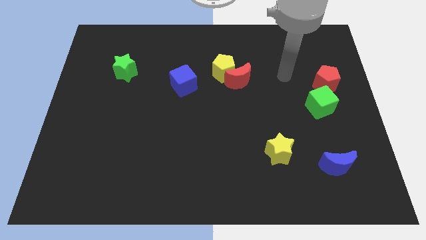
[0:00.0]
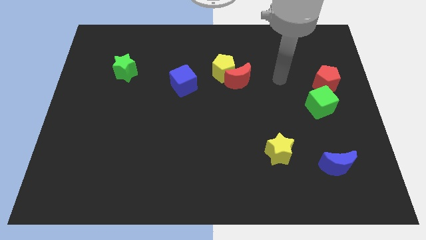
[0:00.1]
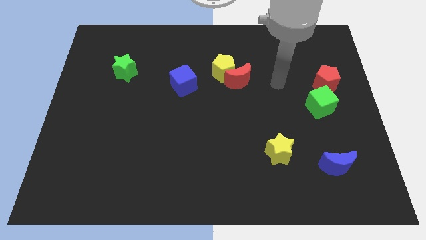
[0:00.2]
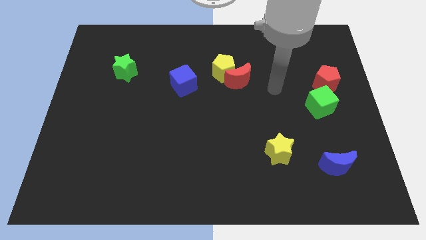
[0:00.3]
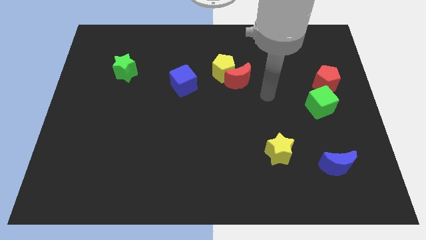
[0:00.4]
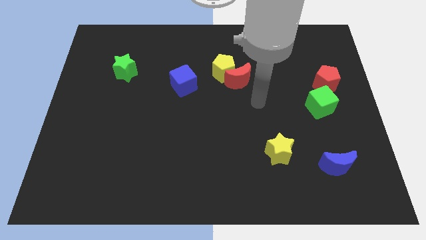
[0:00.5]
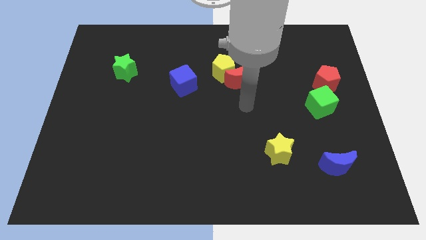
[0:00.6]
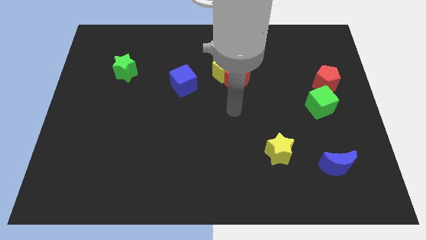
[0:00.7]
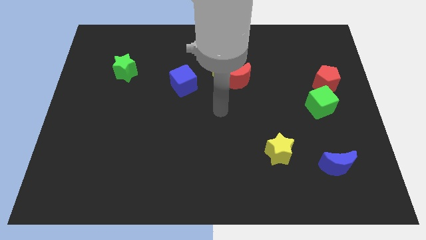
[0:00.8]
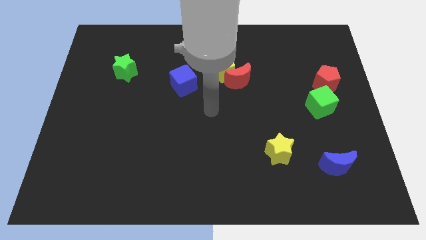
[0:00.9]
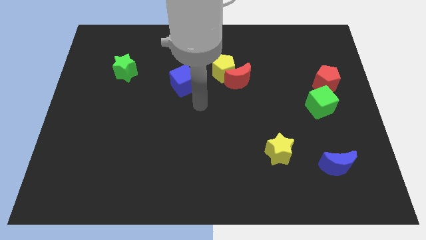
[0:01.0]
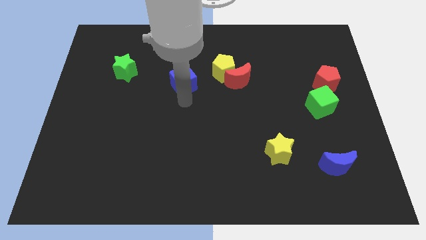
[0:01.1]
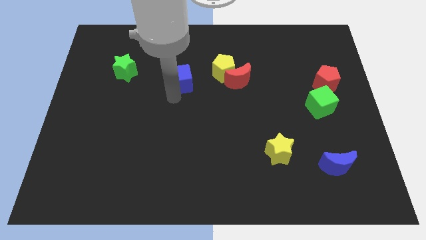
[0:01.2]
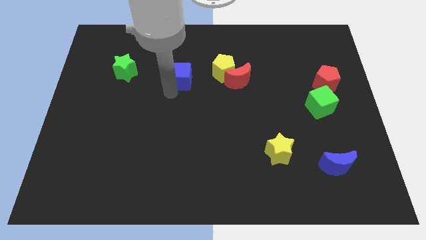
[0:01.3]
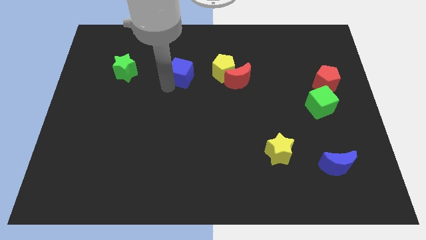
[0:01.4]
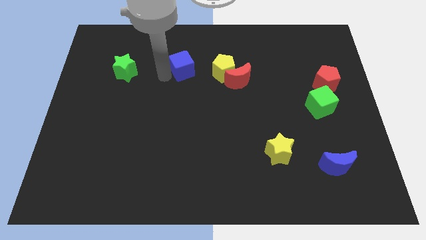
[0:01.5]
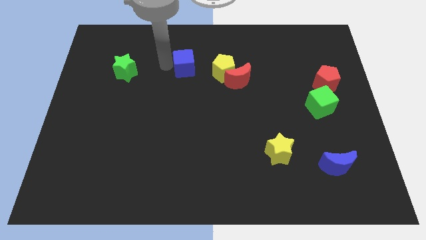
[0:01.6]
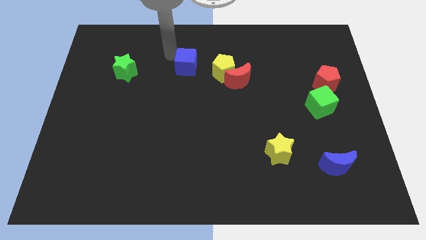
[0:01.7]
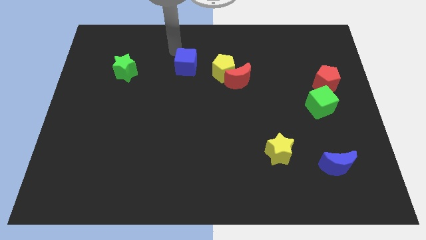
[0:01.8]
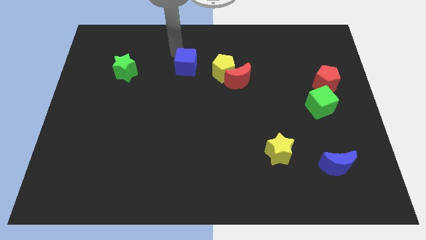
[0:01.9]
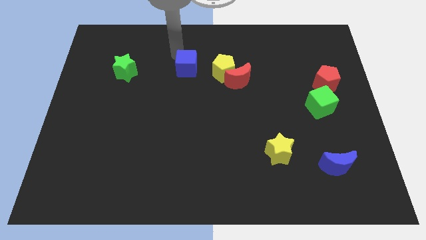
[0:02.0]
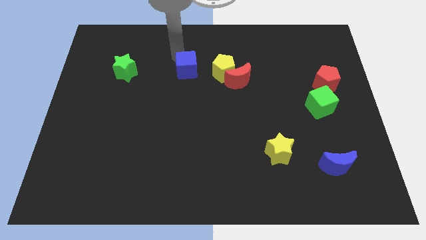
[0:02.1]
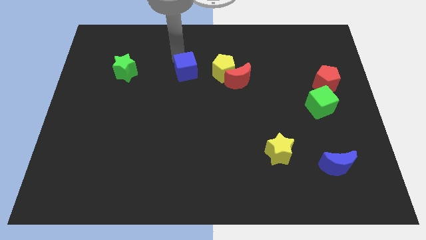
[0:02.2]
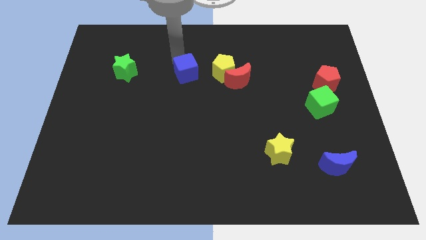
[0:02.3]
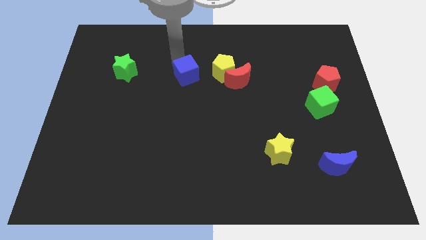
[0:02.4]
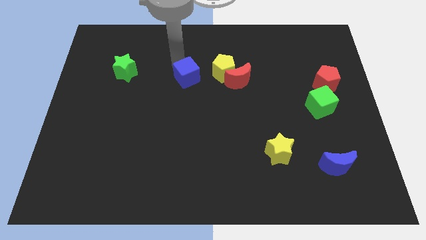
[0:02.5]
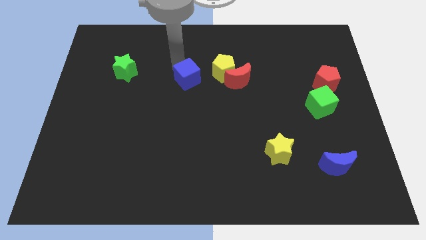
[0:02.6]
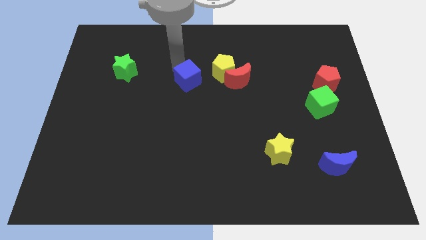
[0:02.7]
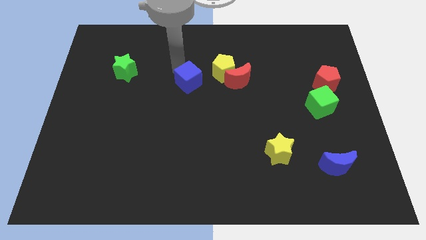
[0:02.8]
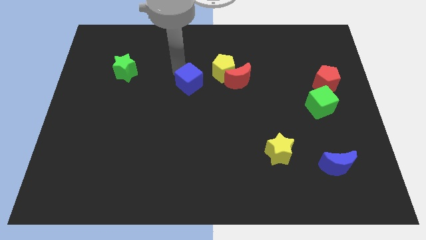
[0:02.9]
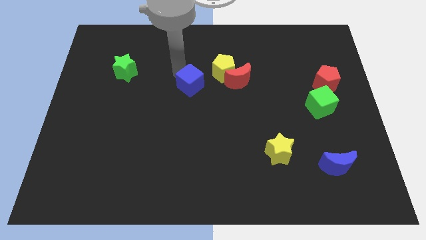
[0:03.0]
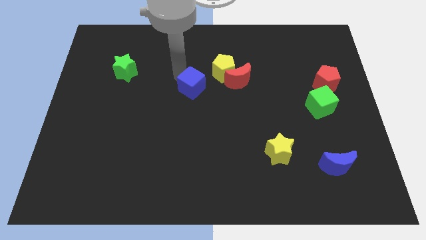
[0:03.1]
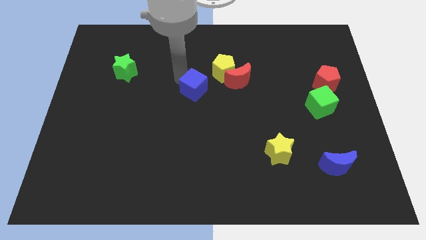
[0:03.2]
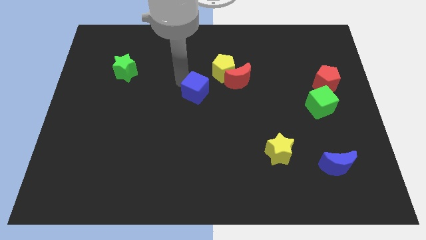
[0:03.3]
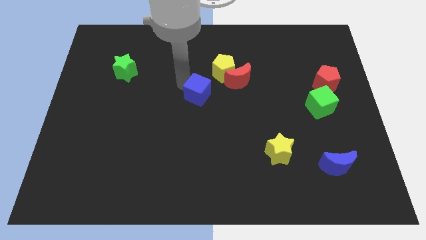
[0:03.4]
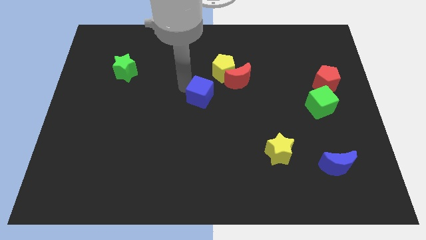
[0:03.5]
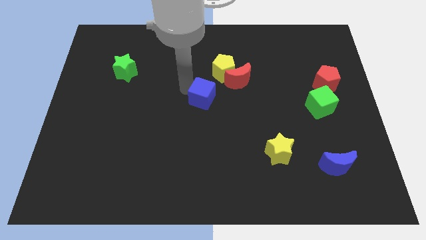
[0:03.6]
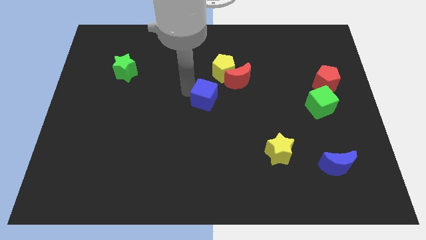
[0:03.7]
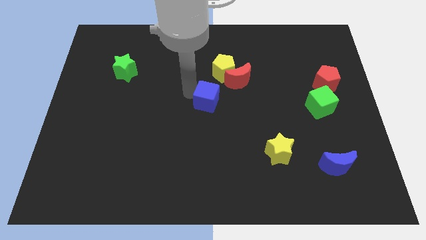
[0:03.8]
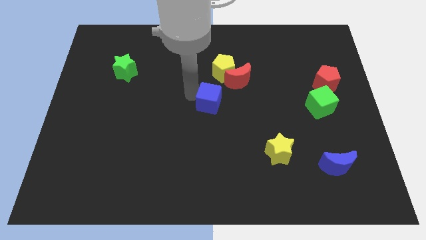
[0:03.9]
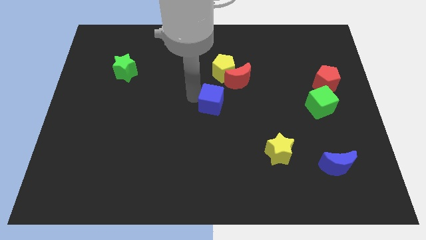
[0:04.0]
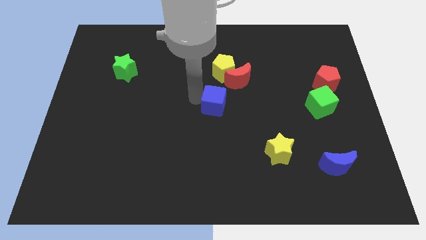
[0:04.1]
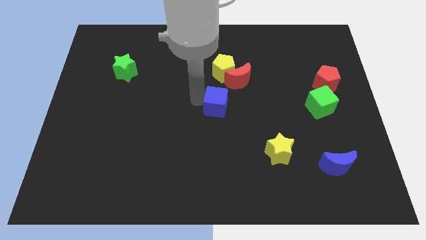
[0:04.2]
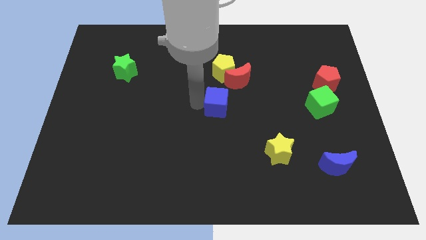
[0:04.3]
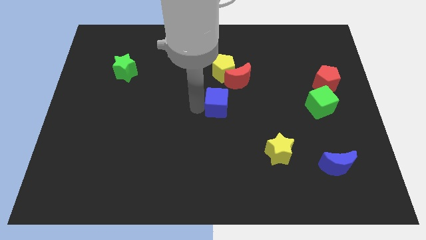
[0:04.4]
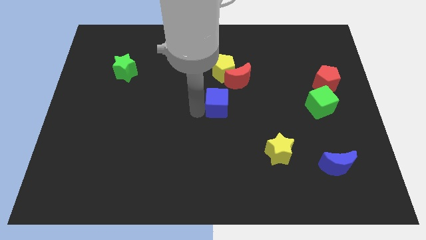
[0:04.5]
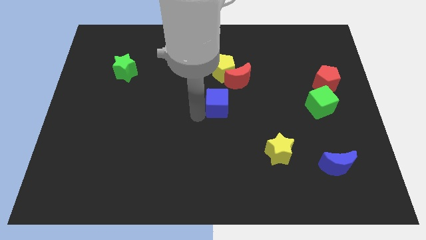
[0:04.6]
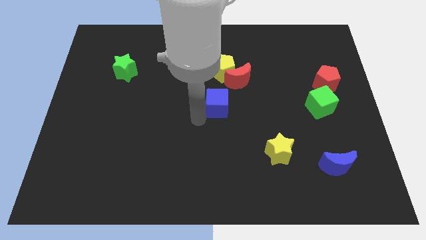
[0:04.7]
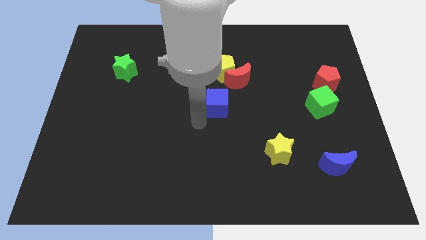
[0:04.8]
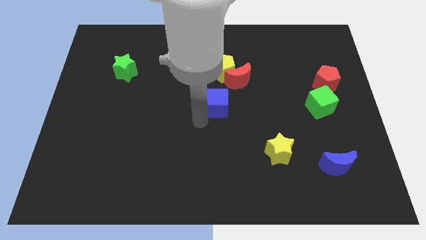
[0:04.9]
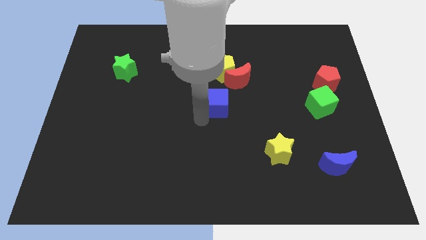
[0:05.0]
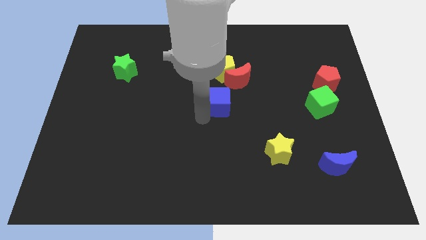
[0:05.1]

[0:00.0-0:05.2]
move the blue cube a little right

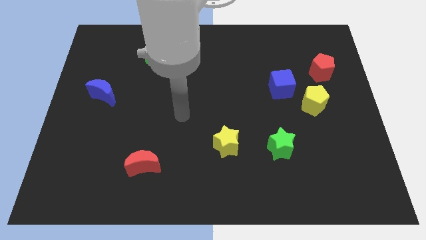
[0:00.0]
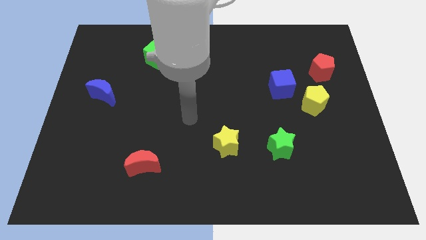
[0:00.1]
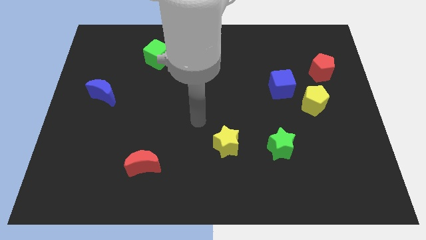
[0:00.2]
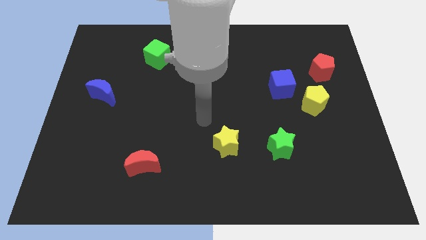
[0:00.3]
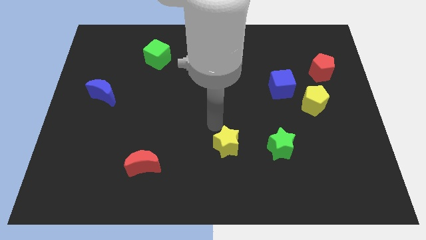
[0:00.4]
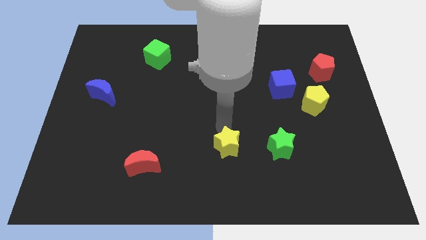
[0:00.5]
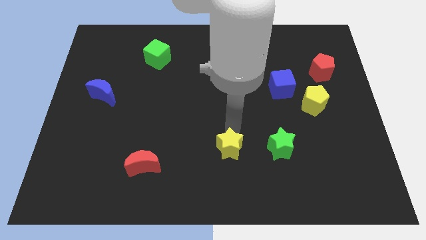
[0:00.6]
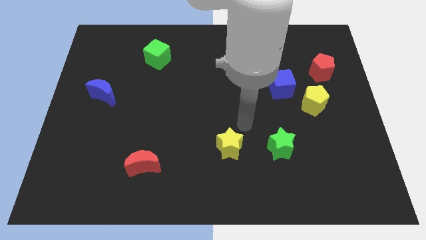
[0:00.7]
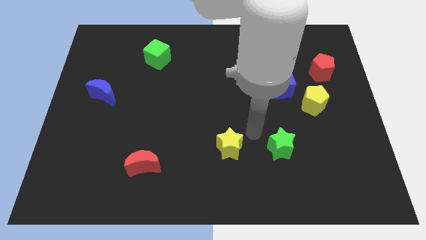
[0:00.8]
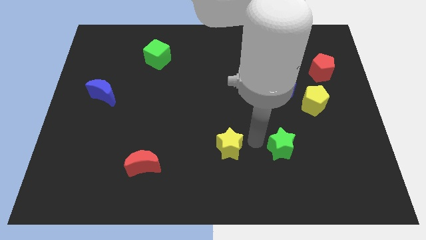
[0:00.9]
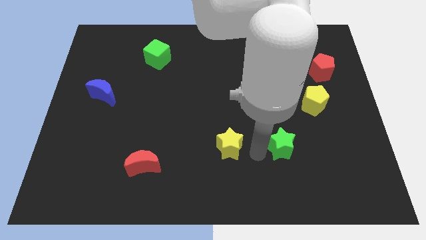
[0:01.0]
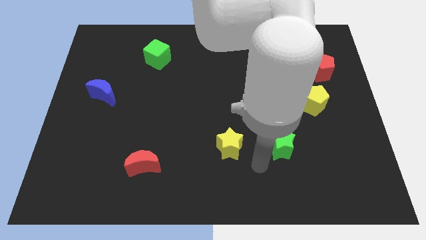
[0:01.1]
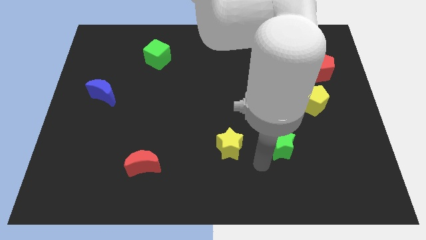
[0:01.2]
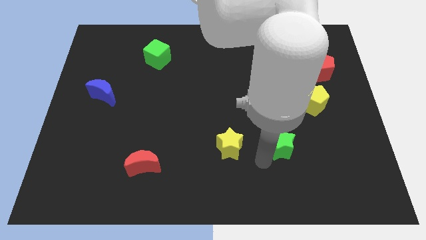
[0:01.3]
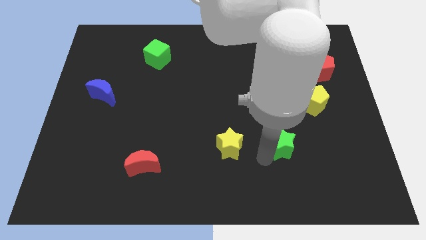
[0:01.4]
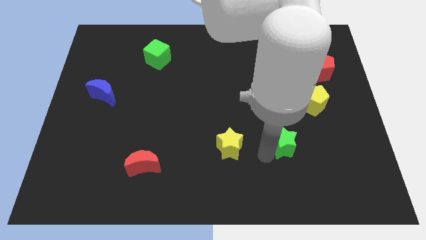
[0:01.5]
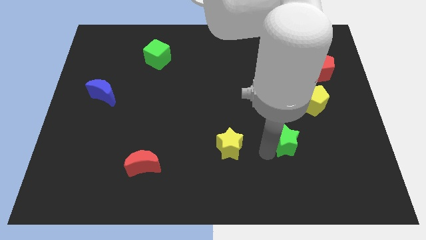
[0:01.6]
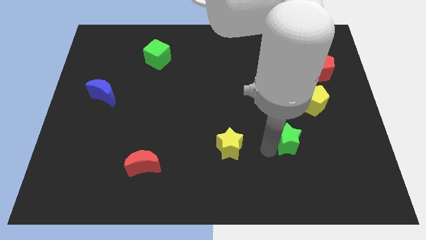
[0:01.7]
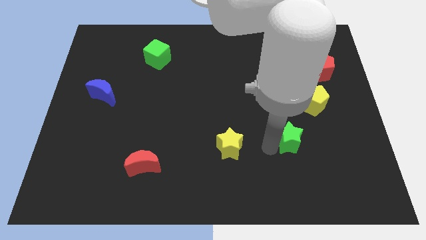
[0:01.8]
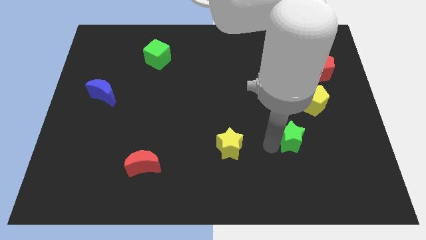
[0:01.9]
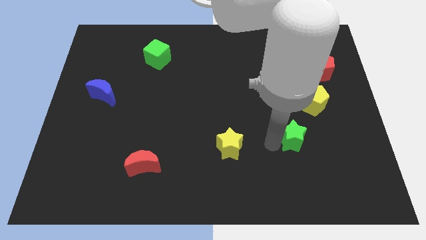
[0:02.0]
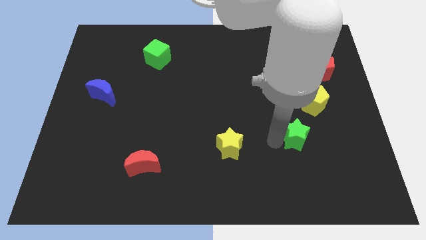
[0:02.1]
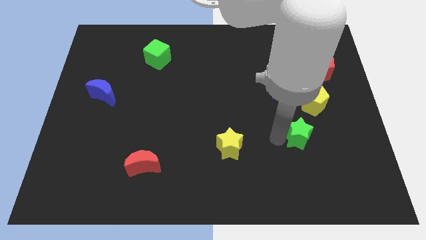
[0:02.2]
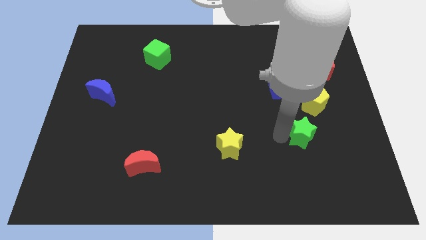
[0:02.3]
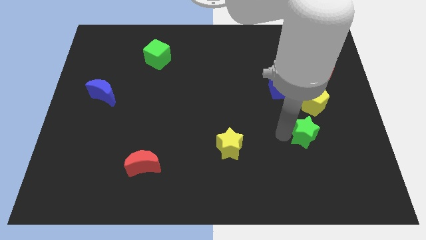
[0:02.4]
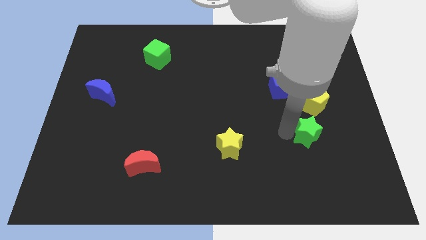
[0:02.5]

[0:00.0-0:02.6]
slightly move the green star upwards and to the right diagonally

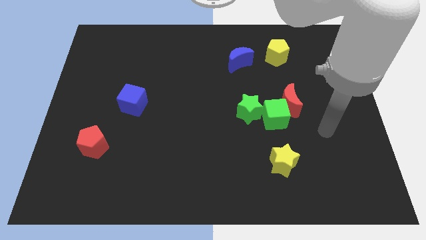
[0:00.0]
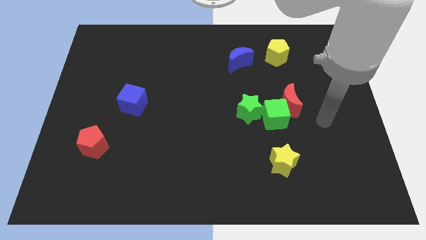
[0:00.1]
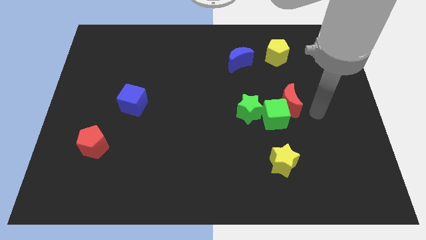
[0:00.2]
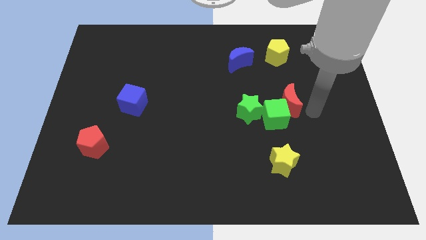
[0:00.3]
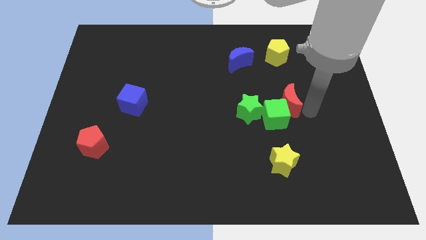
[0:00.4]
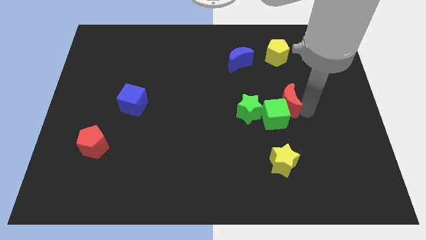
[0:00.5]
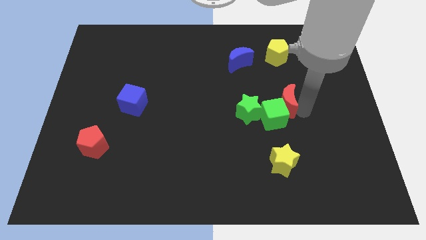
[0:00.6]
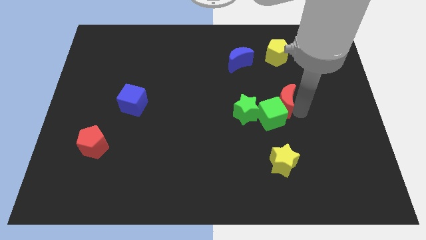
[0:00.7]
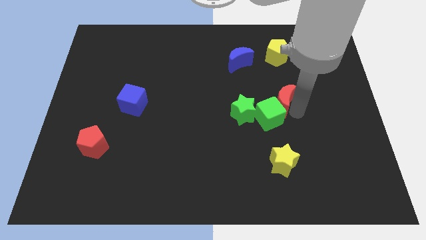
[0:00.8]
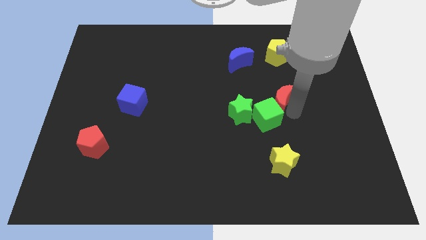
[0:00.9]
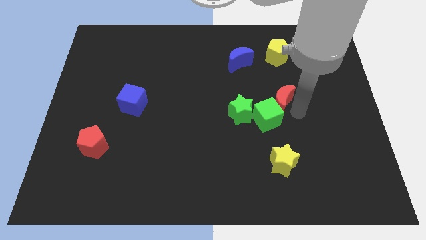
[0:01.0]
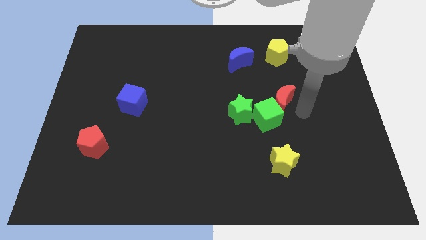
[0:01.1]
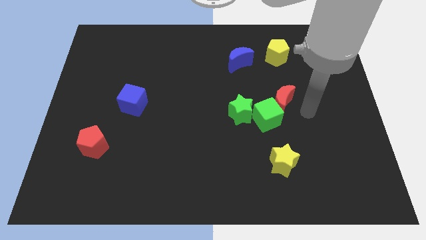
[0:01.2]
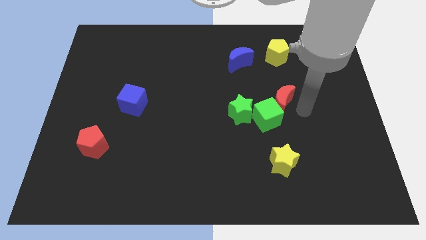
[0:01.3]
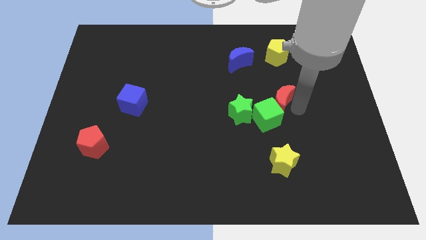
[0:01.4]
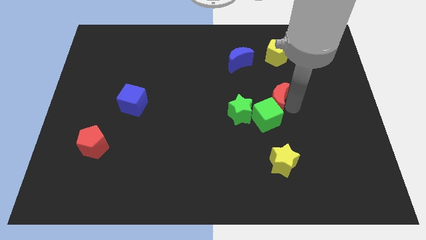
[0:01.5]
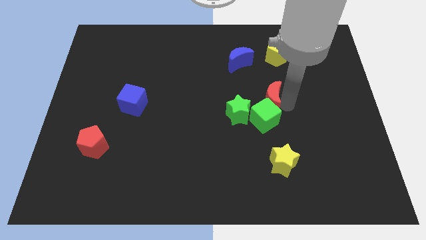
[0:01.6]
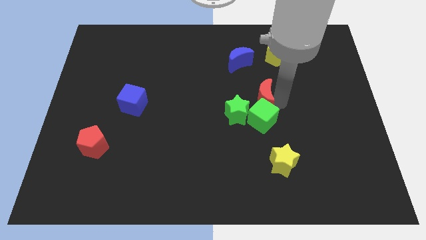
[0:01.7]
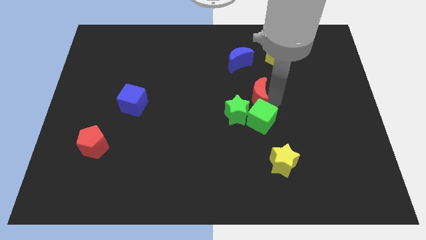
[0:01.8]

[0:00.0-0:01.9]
slide the red moon a little bit left
